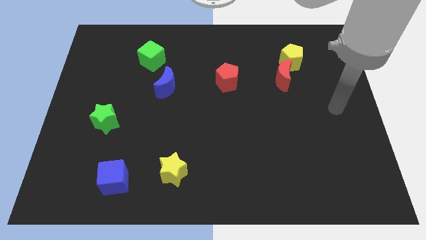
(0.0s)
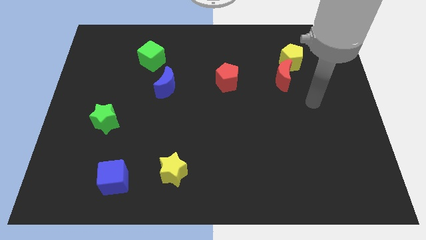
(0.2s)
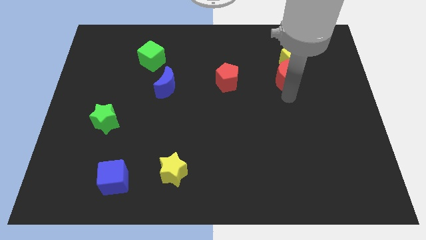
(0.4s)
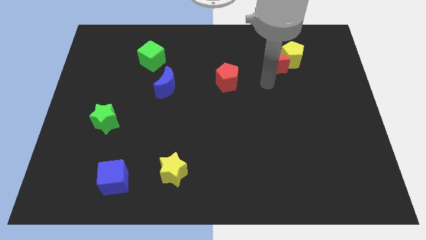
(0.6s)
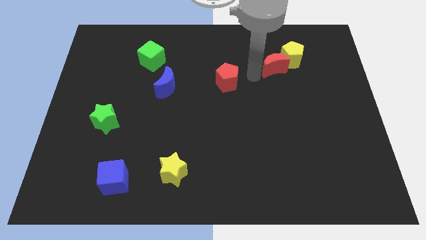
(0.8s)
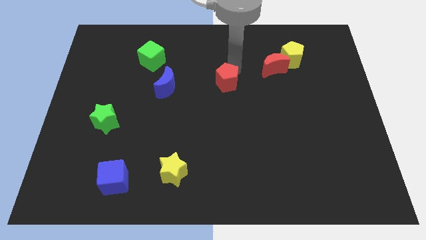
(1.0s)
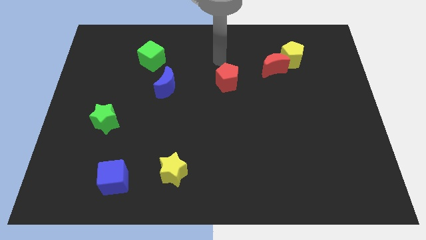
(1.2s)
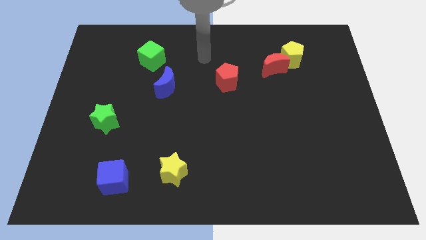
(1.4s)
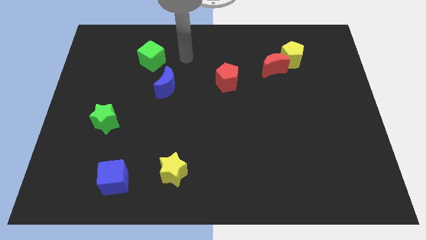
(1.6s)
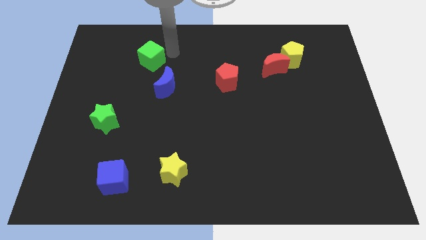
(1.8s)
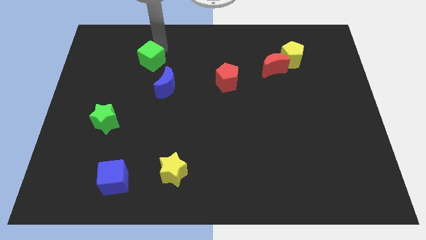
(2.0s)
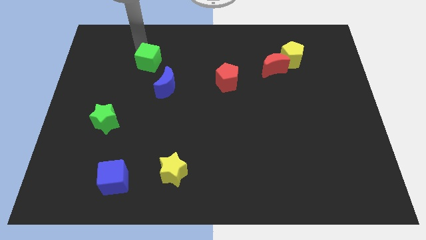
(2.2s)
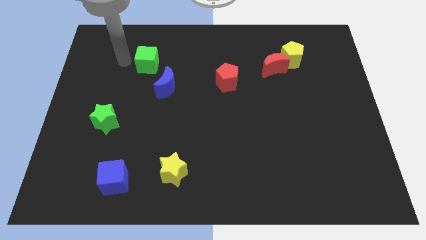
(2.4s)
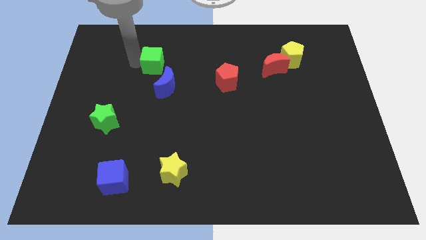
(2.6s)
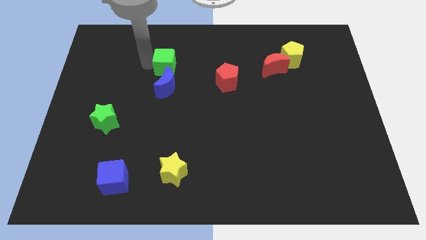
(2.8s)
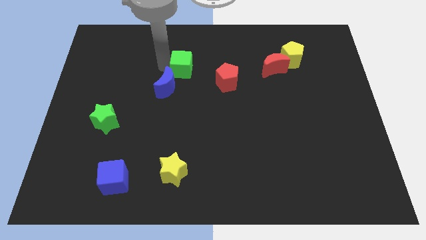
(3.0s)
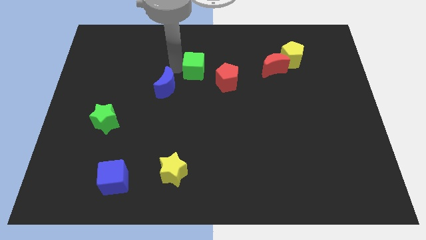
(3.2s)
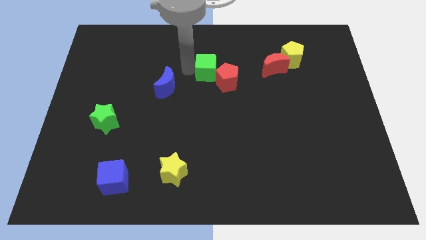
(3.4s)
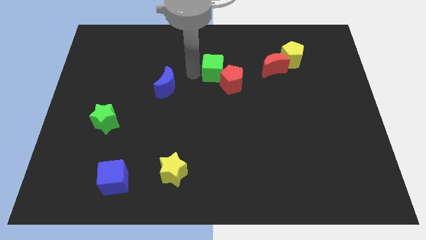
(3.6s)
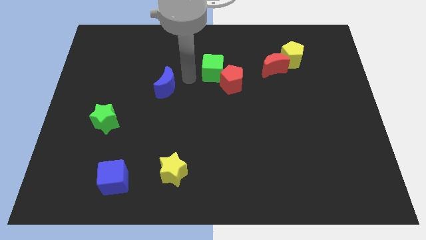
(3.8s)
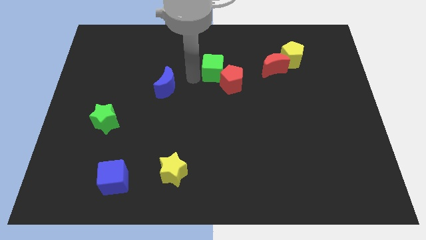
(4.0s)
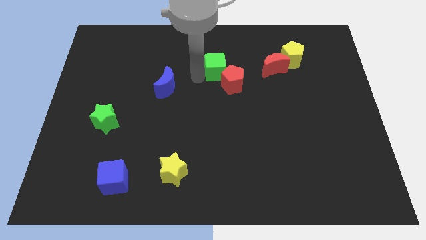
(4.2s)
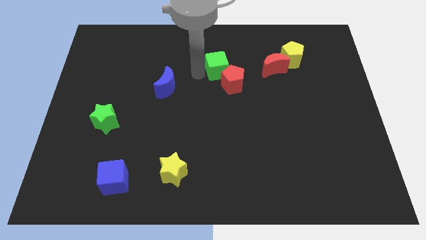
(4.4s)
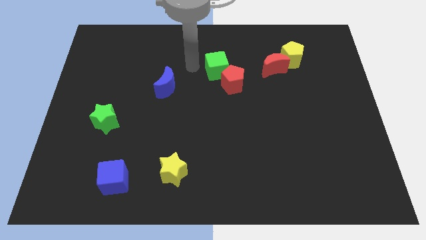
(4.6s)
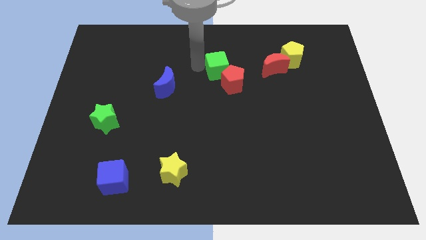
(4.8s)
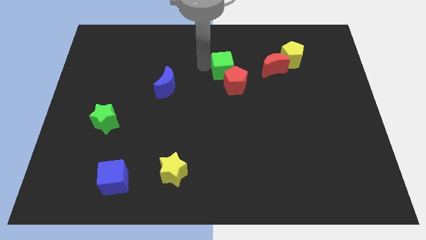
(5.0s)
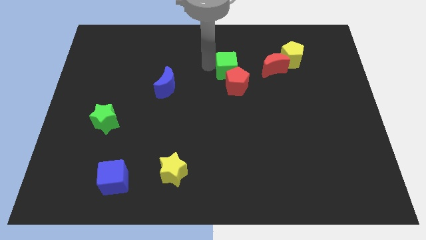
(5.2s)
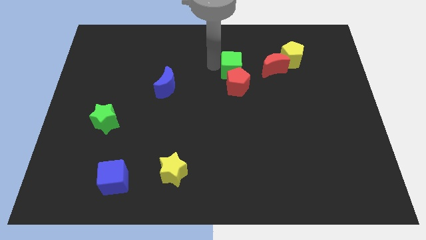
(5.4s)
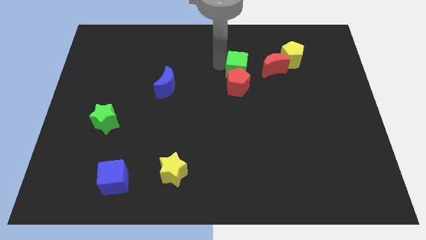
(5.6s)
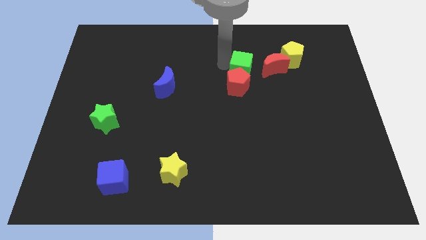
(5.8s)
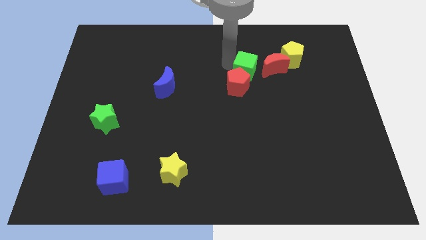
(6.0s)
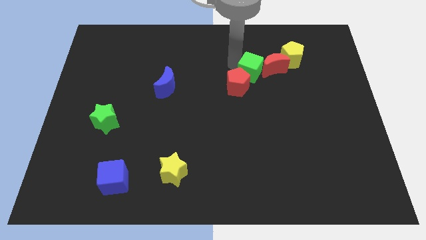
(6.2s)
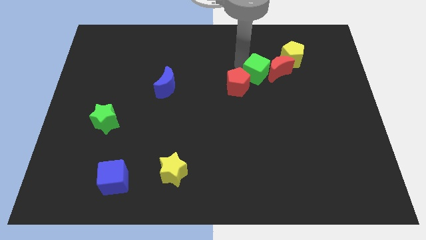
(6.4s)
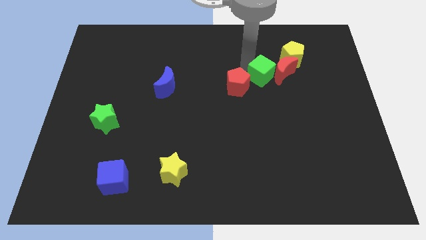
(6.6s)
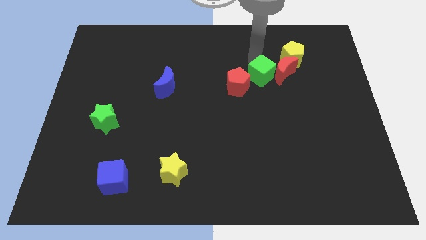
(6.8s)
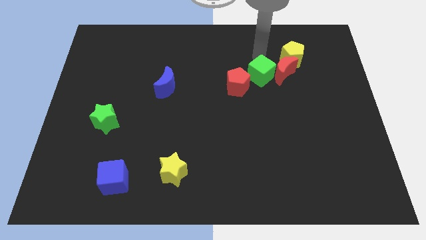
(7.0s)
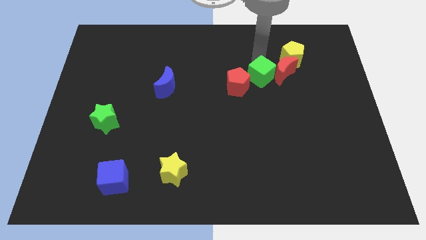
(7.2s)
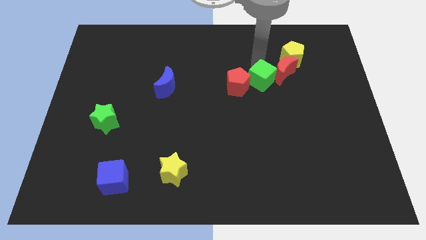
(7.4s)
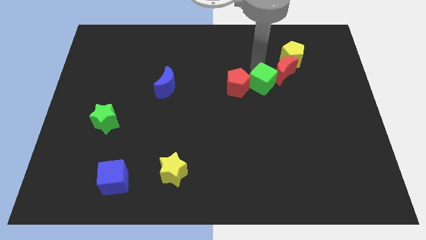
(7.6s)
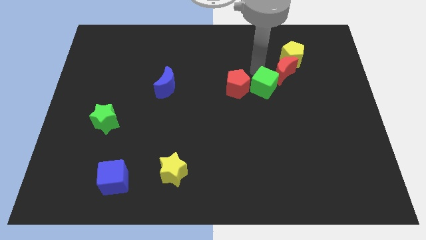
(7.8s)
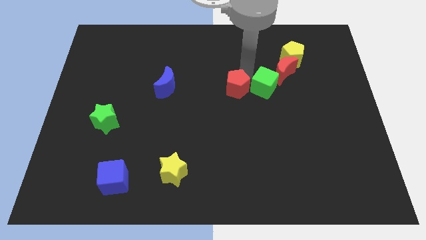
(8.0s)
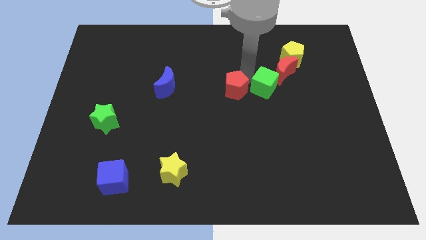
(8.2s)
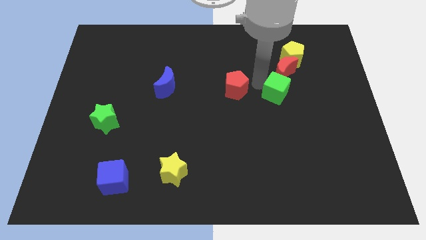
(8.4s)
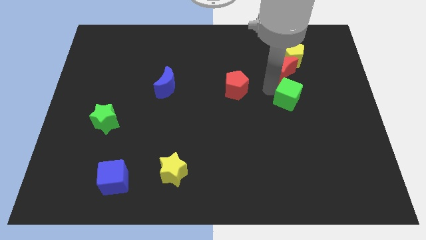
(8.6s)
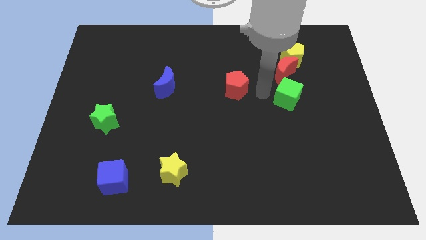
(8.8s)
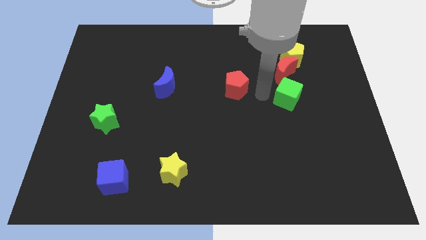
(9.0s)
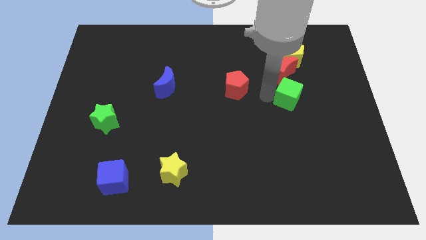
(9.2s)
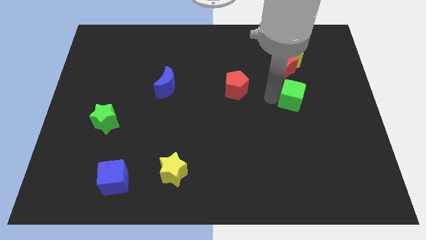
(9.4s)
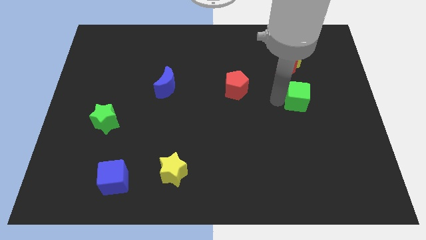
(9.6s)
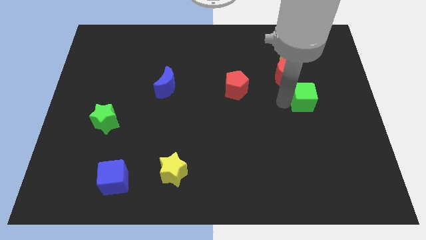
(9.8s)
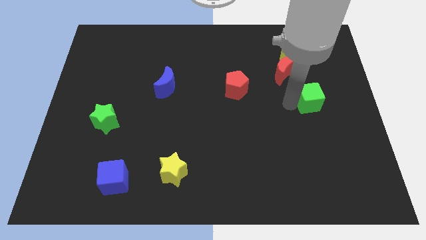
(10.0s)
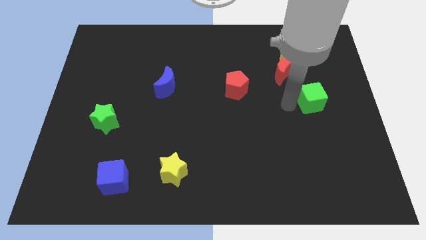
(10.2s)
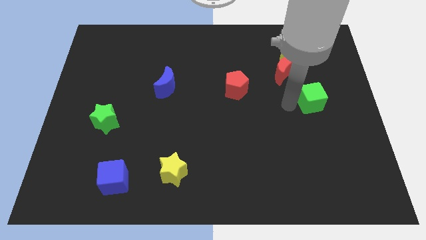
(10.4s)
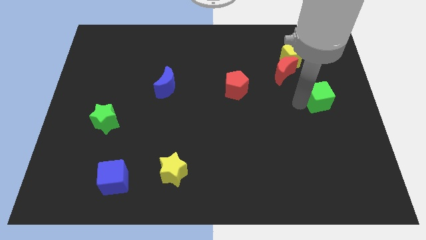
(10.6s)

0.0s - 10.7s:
slide the green cube to the right side
